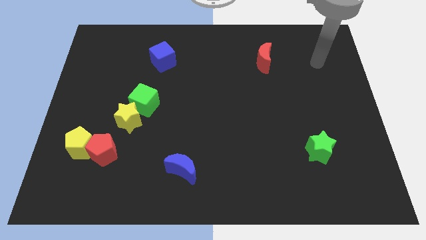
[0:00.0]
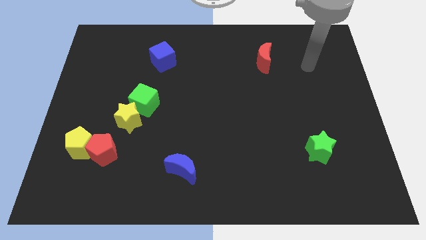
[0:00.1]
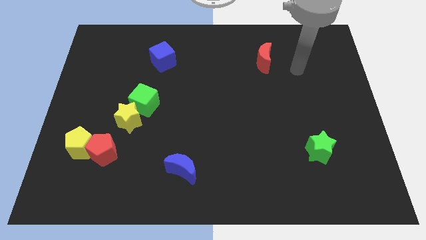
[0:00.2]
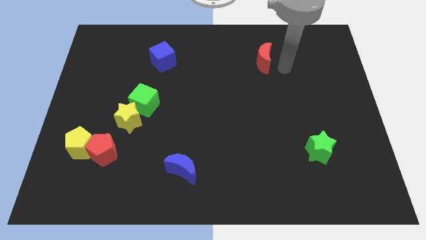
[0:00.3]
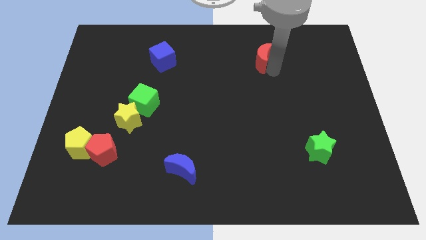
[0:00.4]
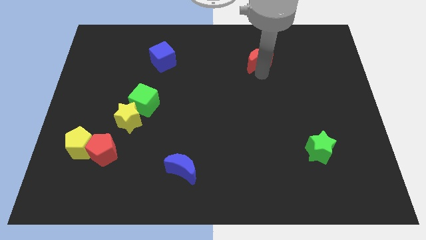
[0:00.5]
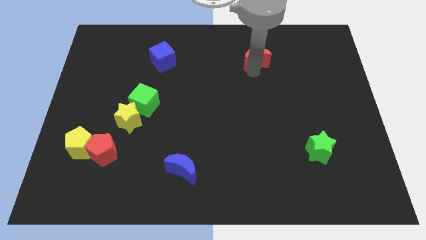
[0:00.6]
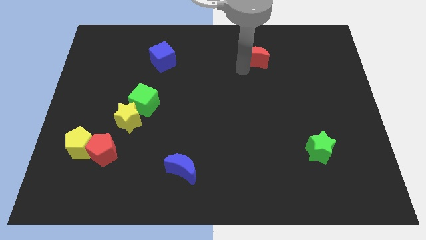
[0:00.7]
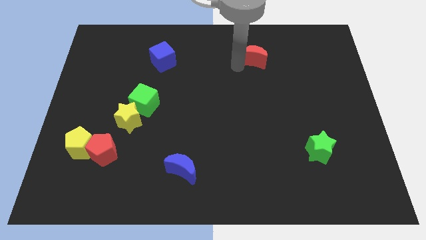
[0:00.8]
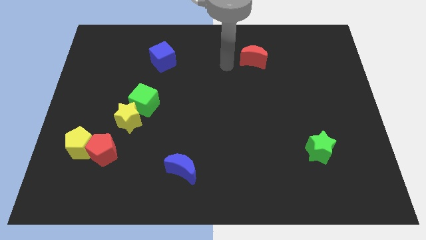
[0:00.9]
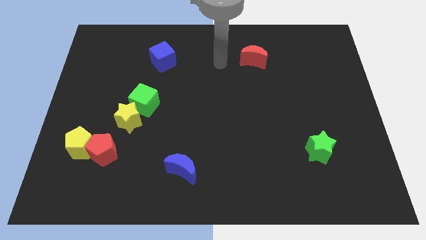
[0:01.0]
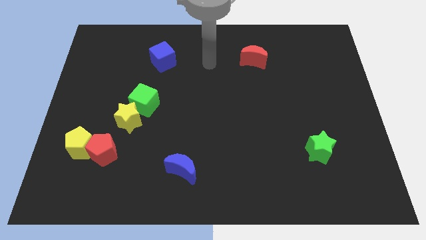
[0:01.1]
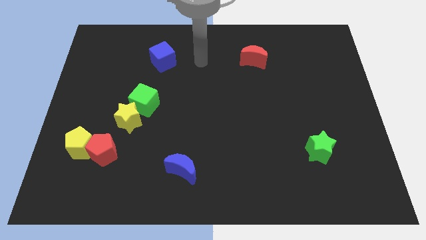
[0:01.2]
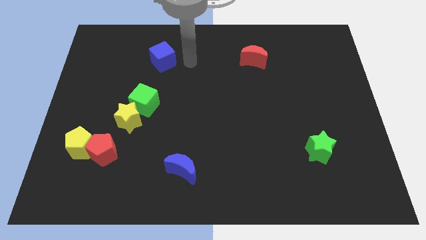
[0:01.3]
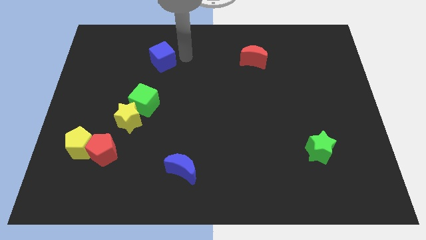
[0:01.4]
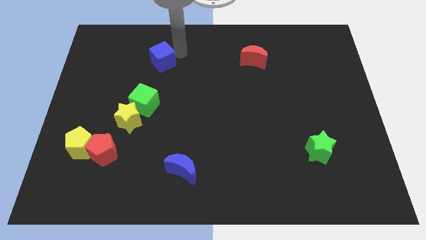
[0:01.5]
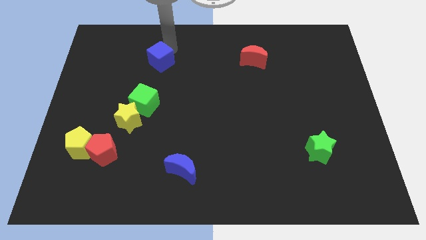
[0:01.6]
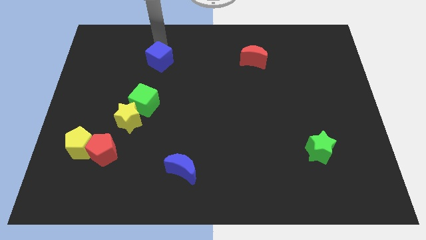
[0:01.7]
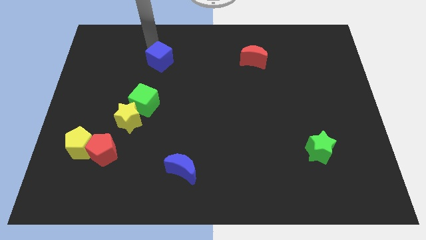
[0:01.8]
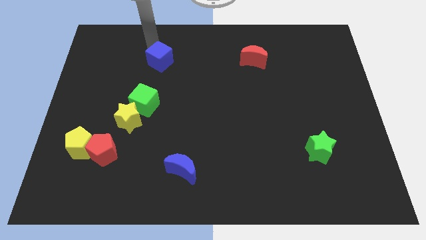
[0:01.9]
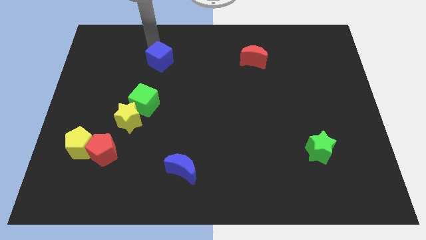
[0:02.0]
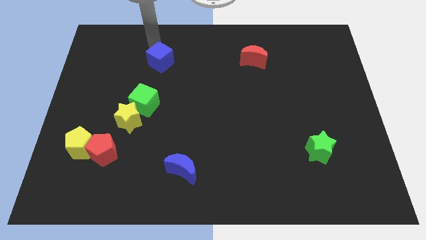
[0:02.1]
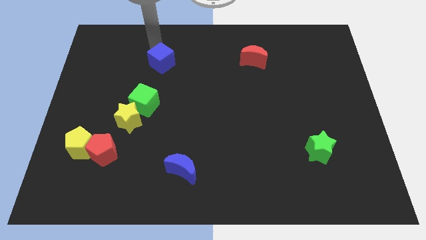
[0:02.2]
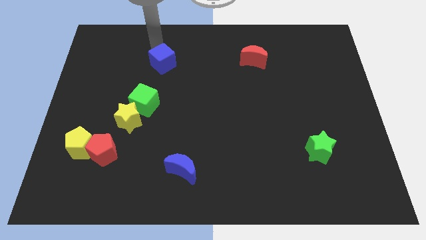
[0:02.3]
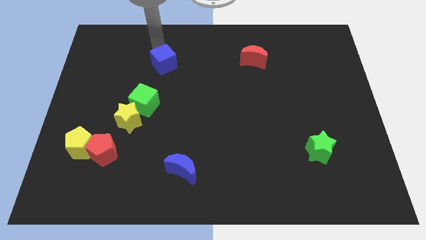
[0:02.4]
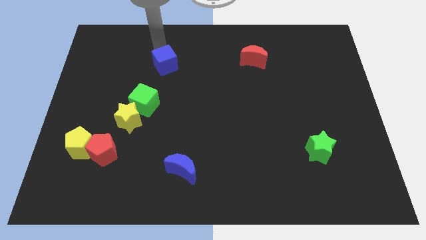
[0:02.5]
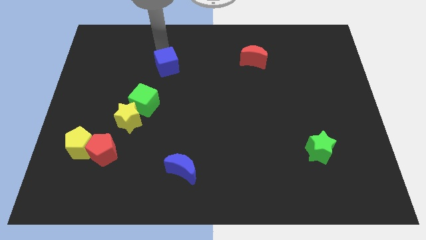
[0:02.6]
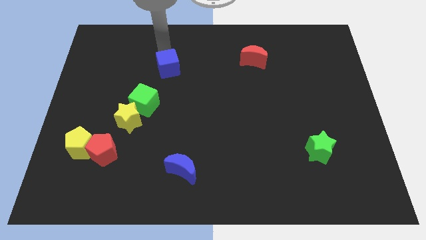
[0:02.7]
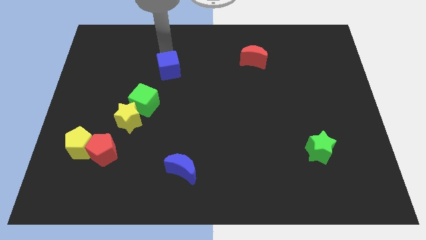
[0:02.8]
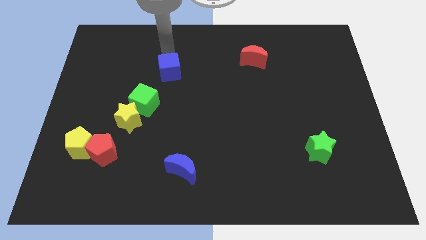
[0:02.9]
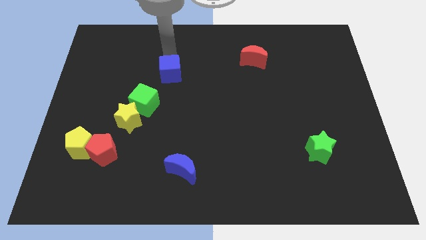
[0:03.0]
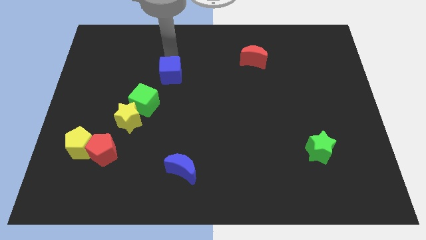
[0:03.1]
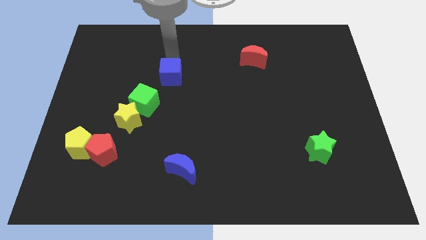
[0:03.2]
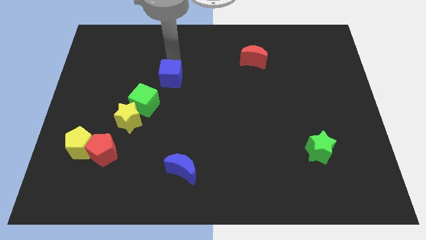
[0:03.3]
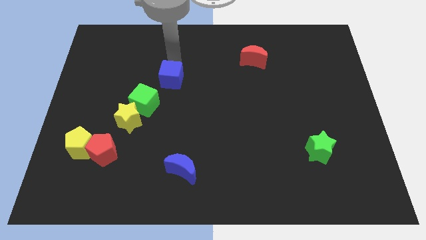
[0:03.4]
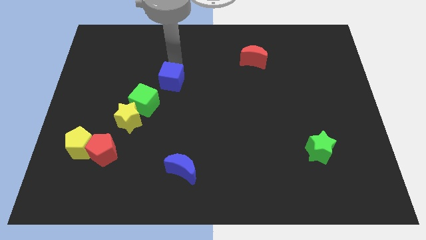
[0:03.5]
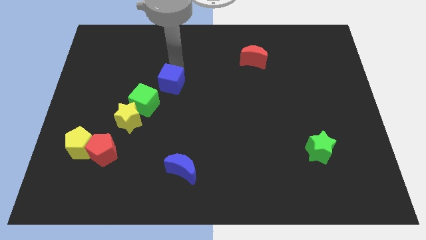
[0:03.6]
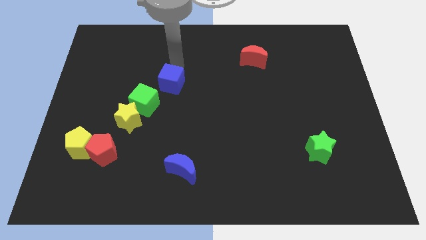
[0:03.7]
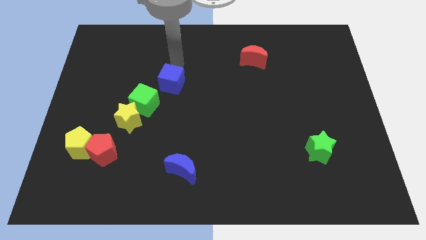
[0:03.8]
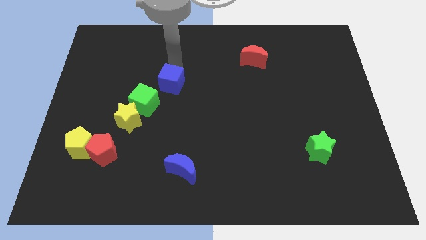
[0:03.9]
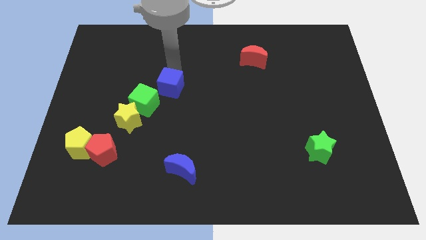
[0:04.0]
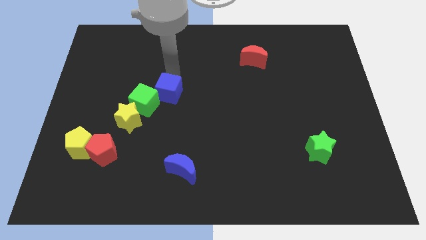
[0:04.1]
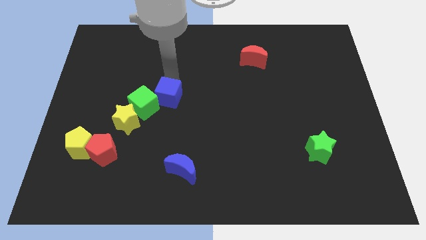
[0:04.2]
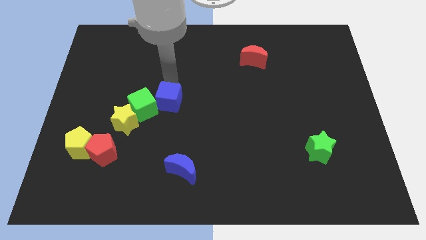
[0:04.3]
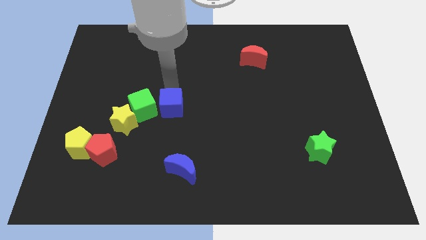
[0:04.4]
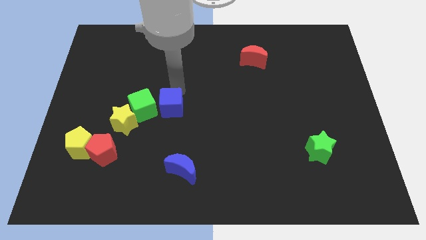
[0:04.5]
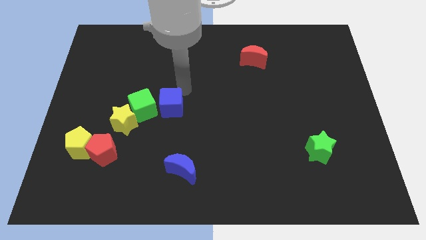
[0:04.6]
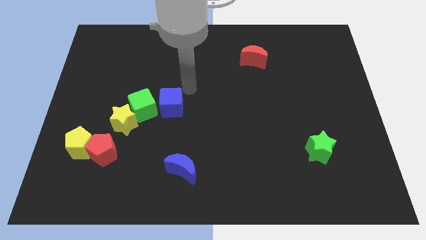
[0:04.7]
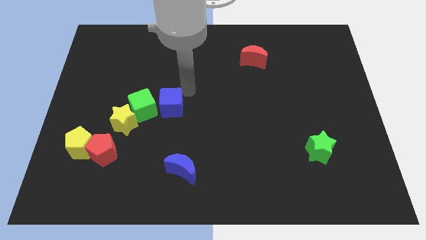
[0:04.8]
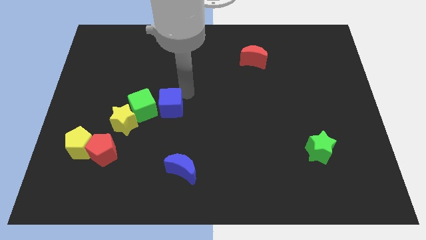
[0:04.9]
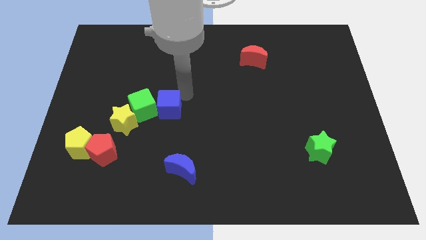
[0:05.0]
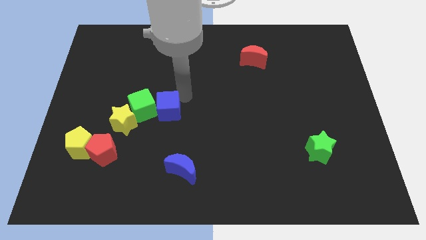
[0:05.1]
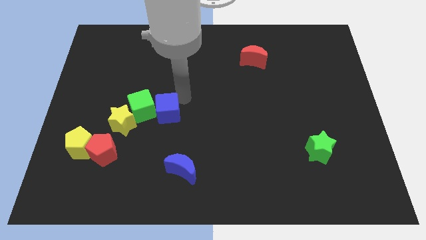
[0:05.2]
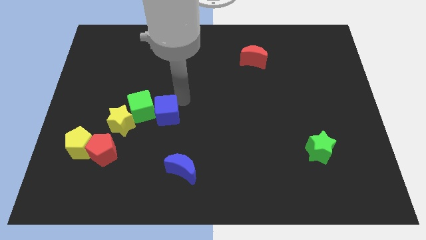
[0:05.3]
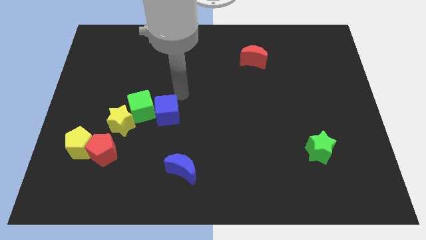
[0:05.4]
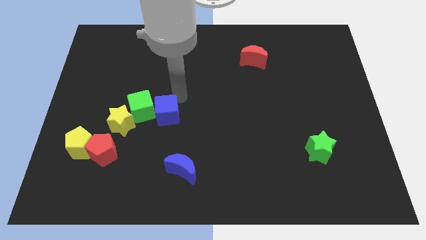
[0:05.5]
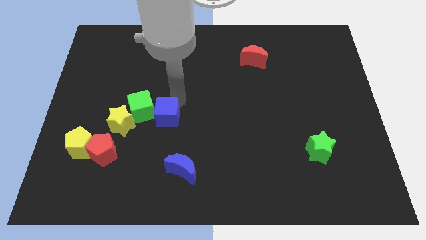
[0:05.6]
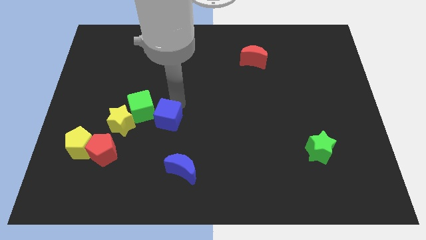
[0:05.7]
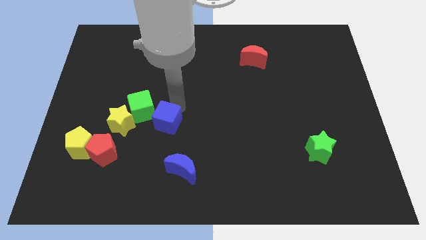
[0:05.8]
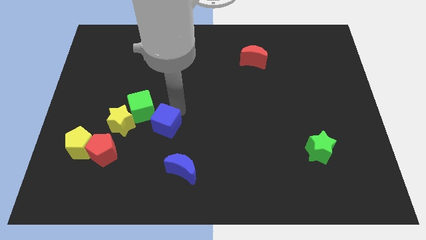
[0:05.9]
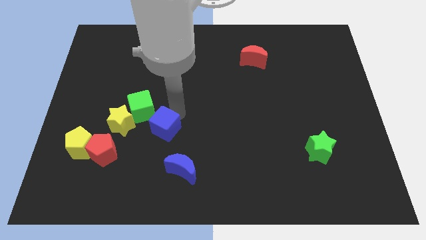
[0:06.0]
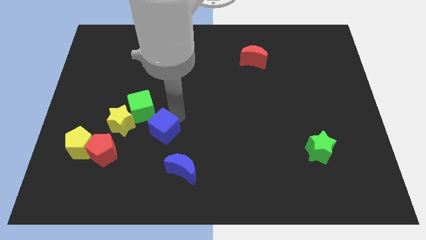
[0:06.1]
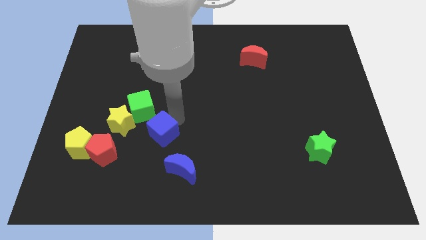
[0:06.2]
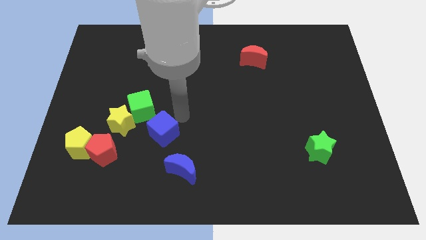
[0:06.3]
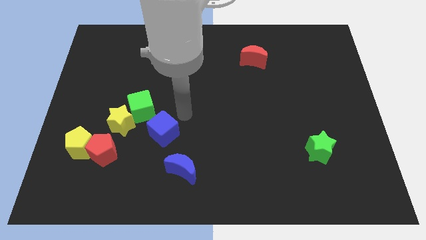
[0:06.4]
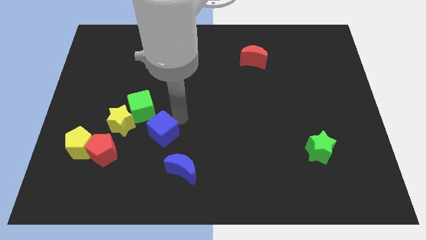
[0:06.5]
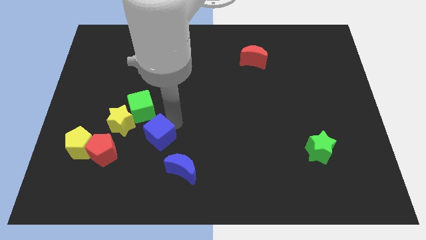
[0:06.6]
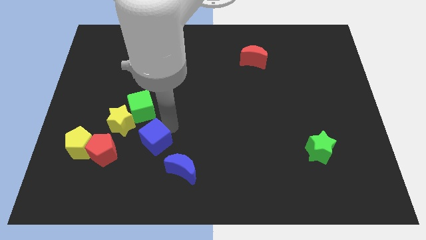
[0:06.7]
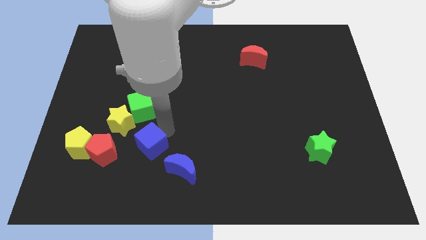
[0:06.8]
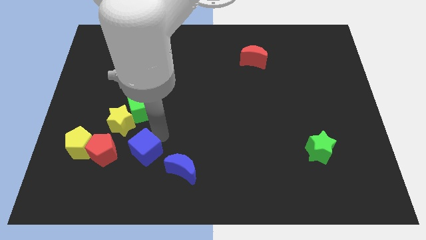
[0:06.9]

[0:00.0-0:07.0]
put the blue cube just left of the blue moon

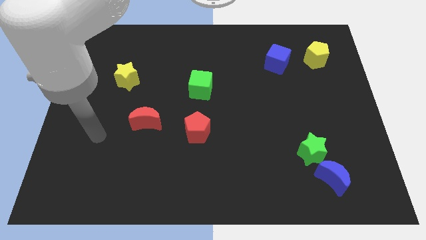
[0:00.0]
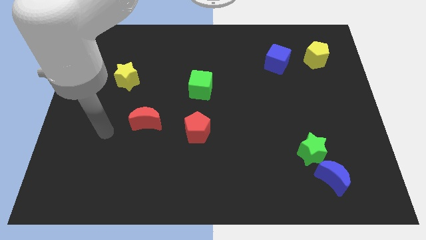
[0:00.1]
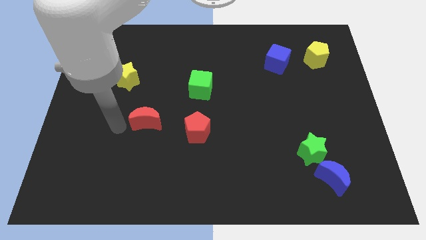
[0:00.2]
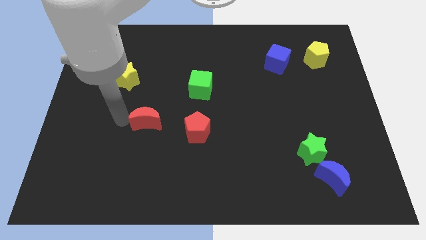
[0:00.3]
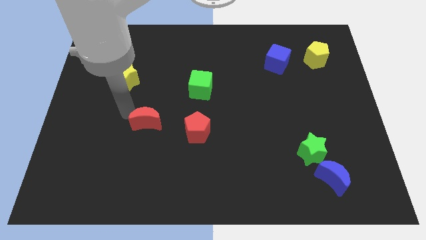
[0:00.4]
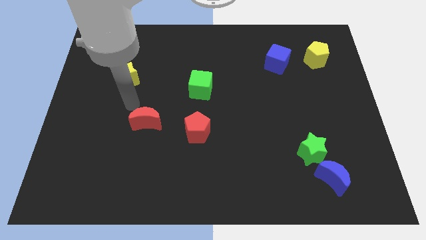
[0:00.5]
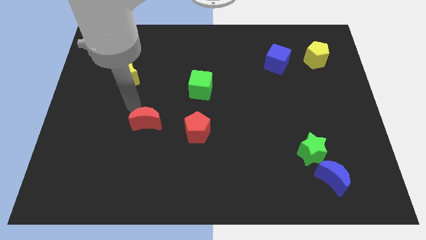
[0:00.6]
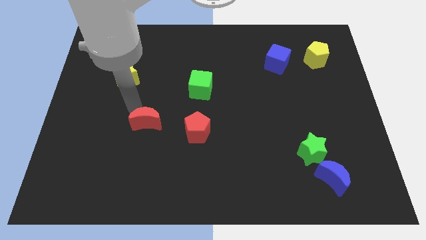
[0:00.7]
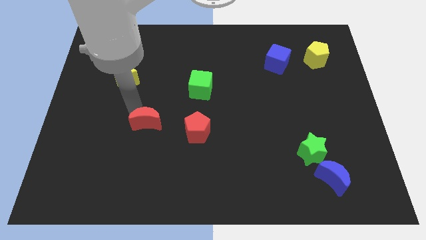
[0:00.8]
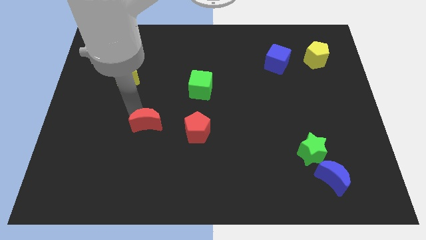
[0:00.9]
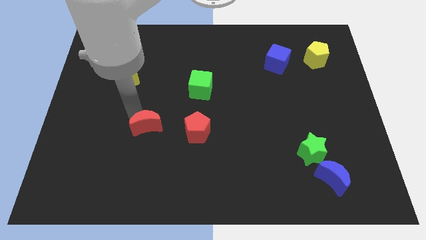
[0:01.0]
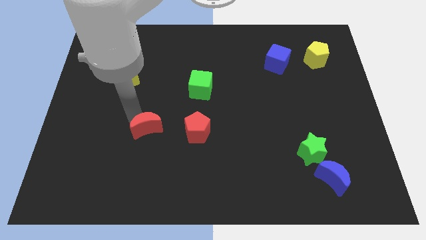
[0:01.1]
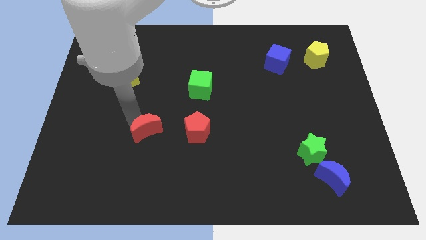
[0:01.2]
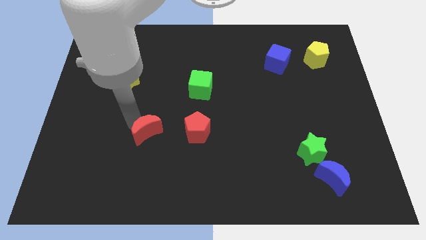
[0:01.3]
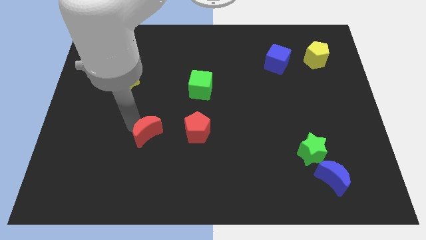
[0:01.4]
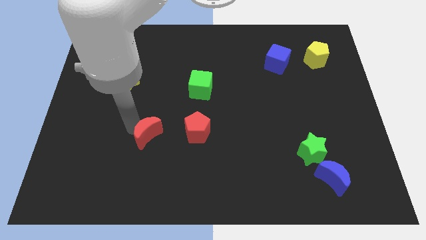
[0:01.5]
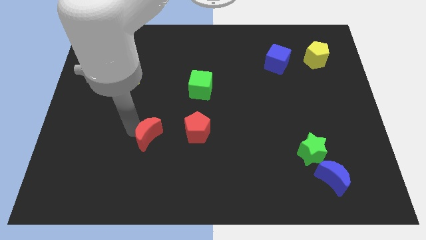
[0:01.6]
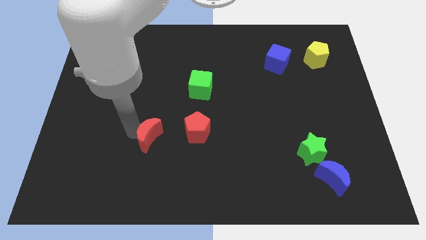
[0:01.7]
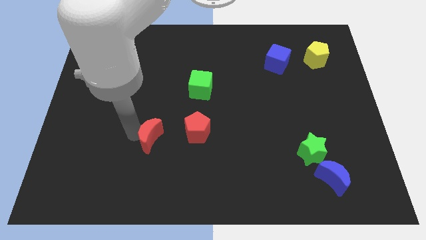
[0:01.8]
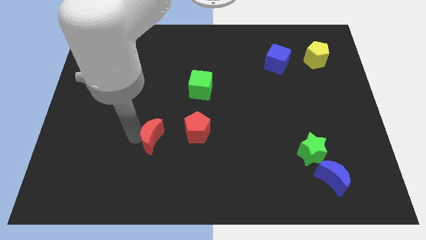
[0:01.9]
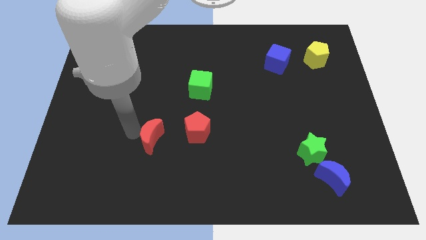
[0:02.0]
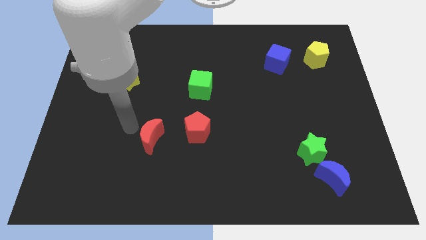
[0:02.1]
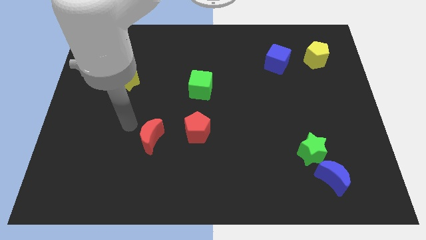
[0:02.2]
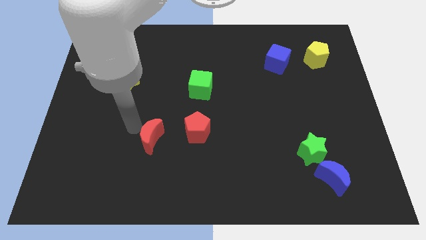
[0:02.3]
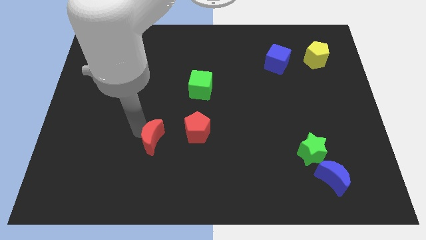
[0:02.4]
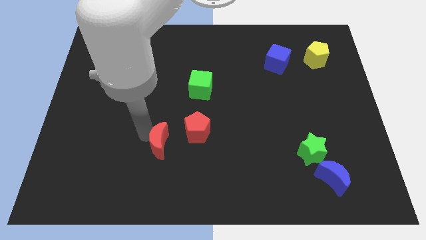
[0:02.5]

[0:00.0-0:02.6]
slide the red moon to the bottom left side of the red pentagon
